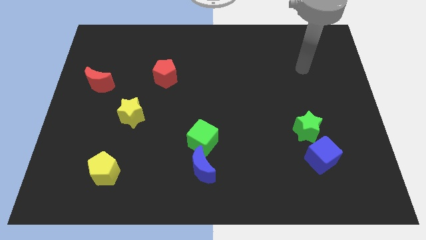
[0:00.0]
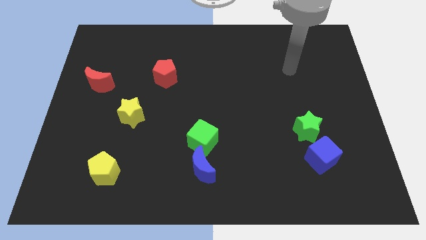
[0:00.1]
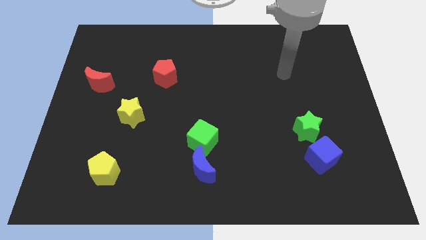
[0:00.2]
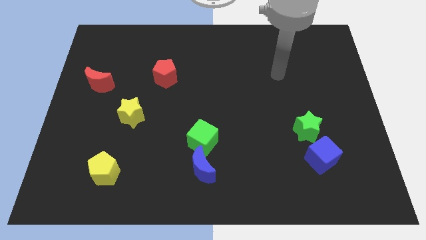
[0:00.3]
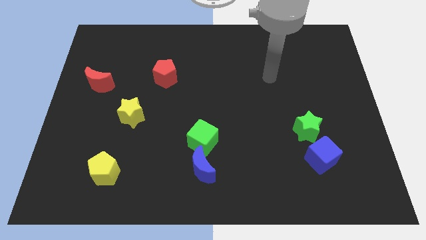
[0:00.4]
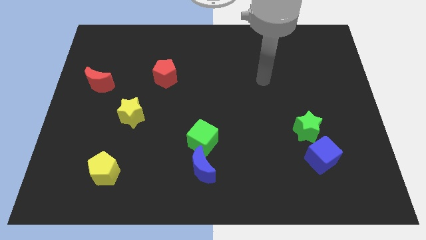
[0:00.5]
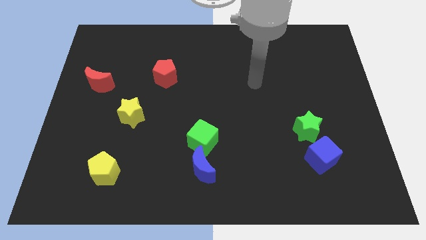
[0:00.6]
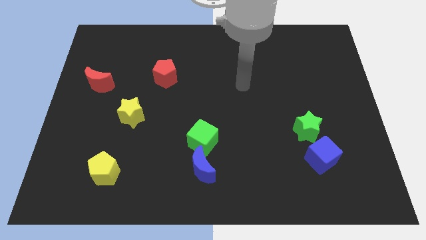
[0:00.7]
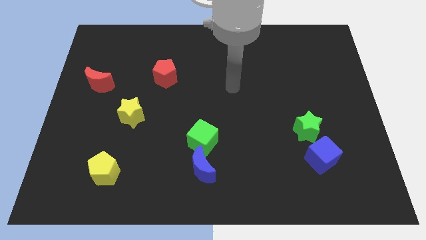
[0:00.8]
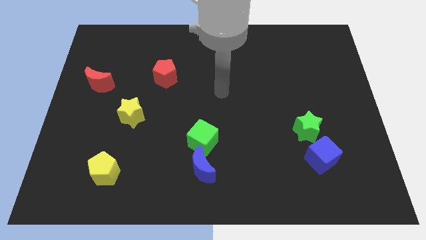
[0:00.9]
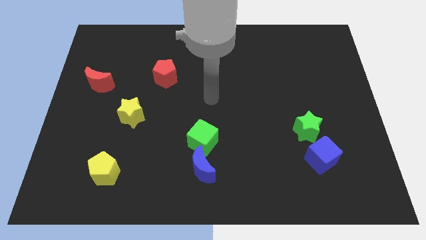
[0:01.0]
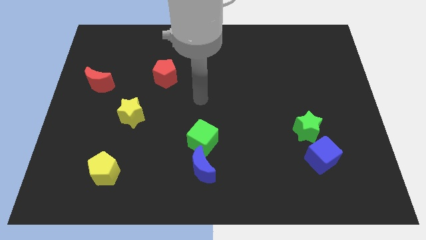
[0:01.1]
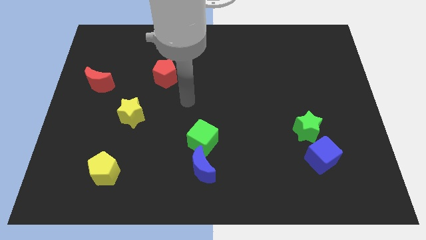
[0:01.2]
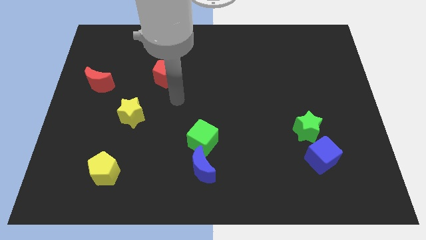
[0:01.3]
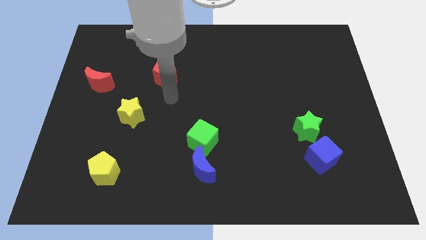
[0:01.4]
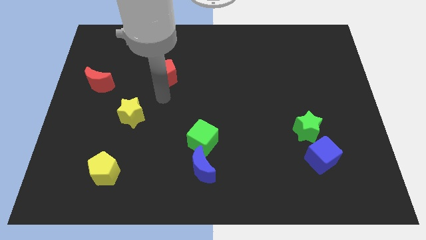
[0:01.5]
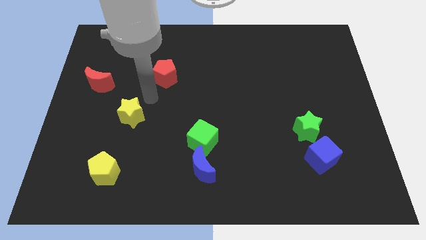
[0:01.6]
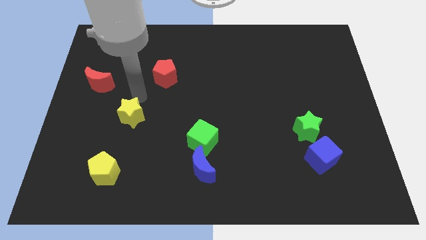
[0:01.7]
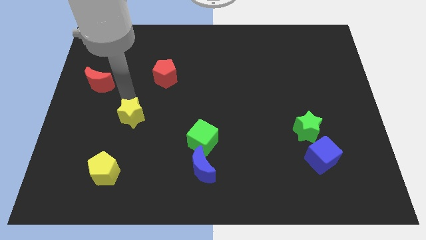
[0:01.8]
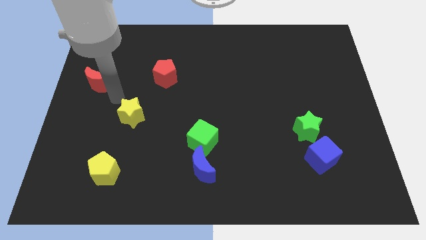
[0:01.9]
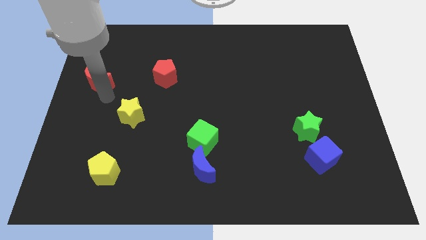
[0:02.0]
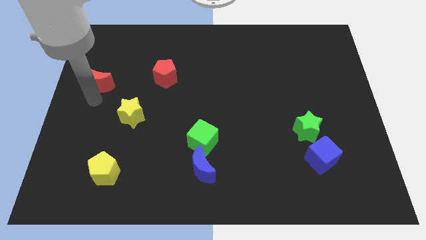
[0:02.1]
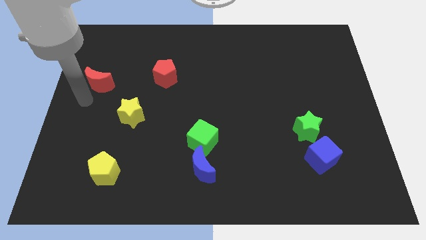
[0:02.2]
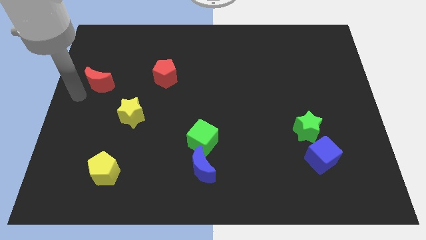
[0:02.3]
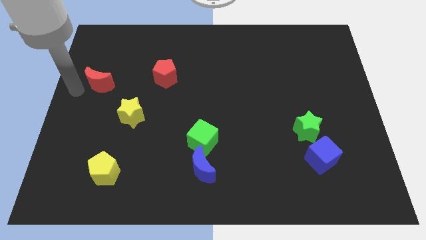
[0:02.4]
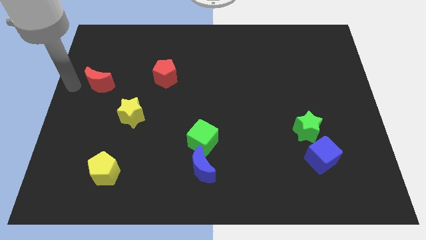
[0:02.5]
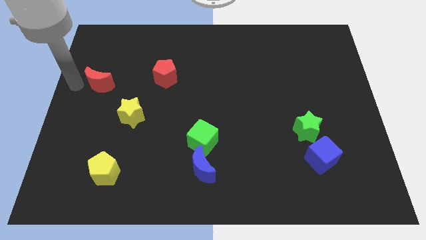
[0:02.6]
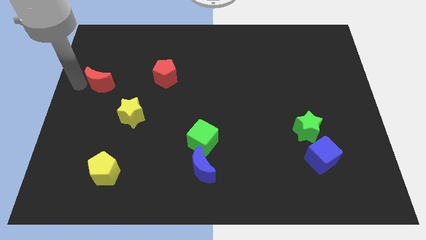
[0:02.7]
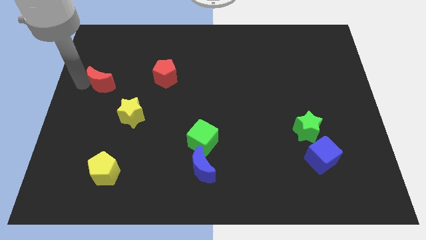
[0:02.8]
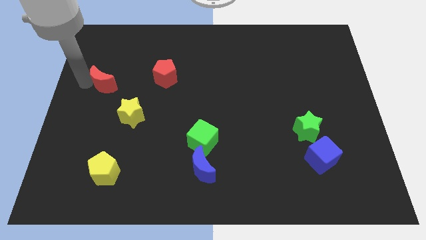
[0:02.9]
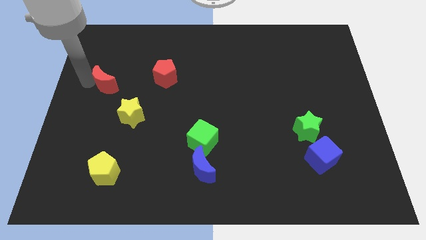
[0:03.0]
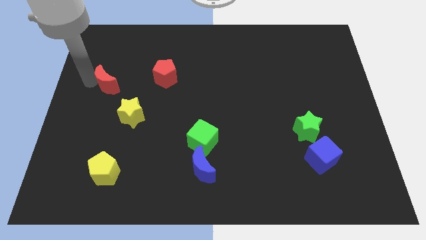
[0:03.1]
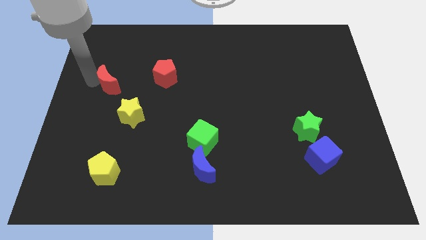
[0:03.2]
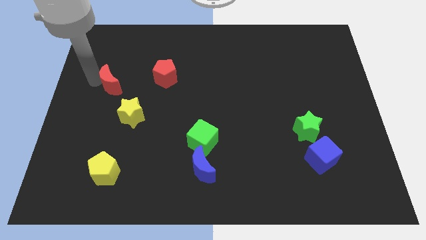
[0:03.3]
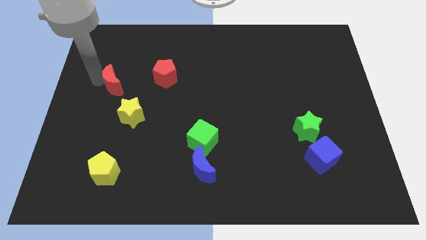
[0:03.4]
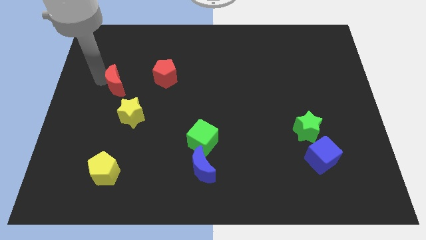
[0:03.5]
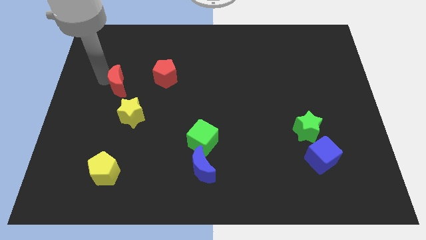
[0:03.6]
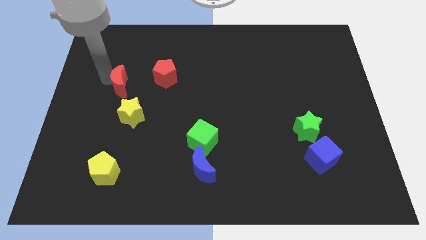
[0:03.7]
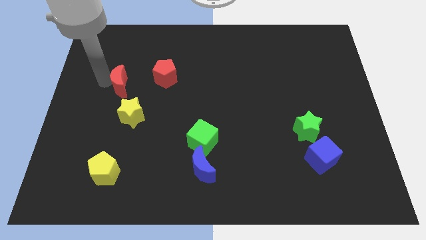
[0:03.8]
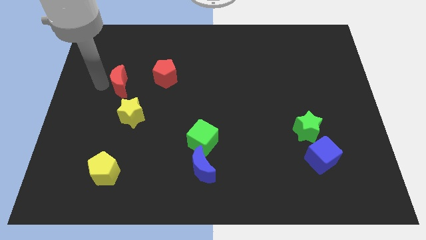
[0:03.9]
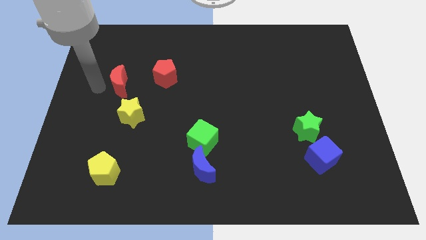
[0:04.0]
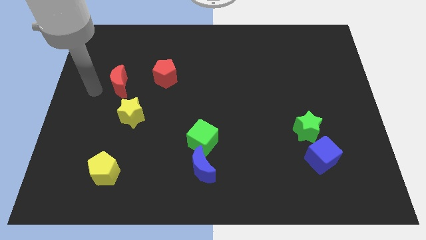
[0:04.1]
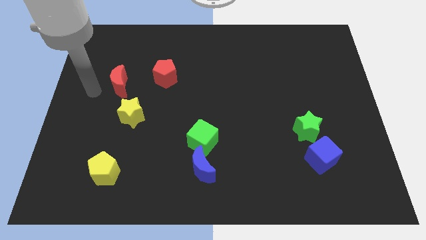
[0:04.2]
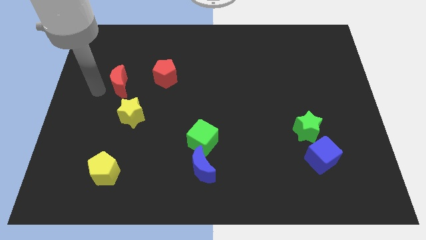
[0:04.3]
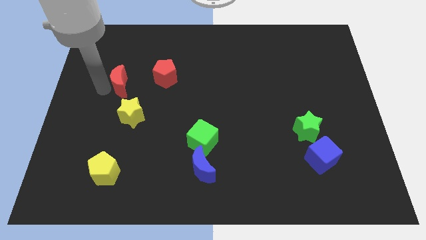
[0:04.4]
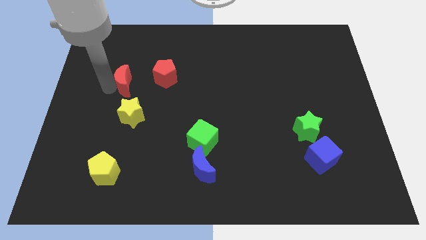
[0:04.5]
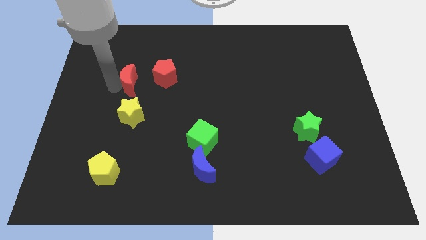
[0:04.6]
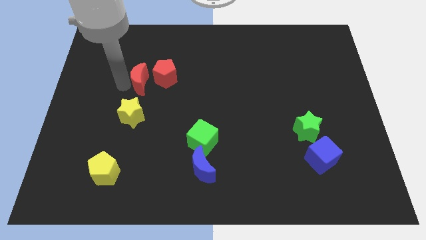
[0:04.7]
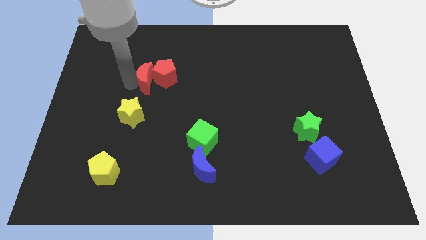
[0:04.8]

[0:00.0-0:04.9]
push the red moon towards the red pentagon

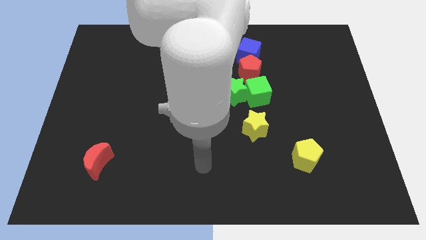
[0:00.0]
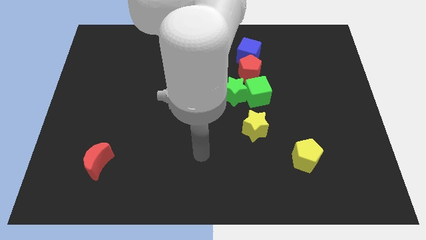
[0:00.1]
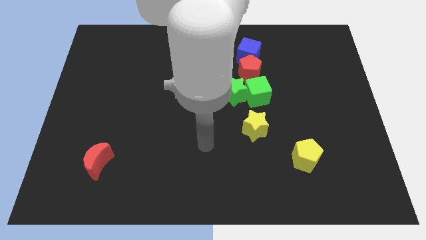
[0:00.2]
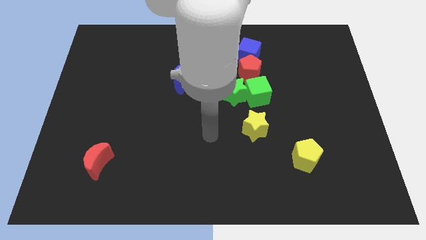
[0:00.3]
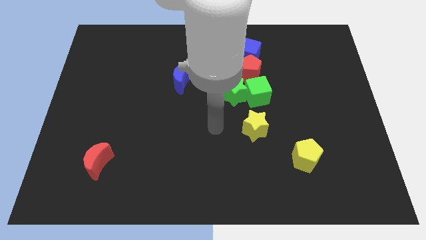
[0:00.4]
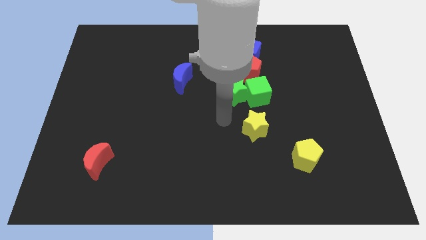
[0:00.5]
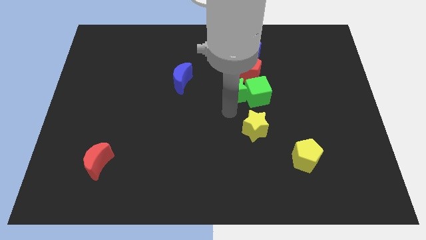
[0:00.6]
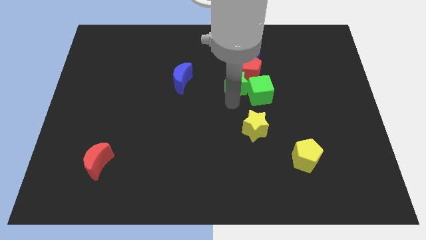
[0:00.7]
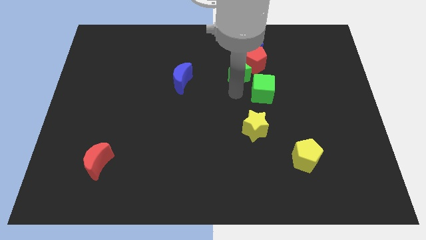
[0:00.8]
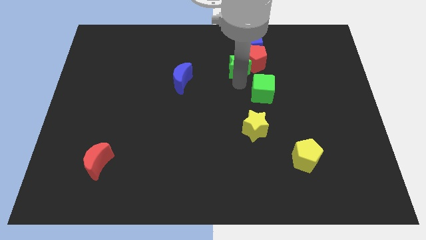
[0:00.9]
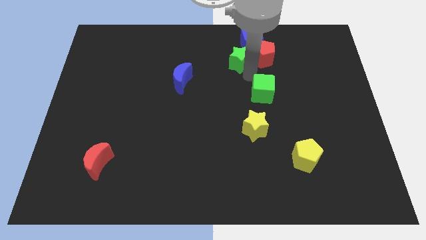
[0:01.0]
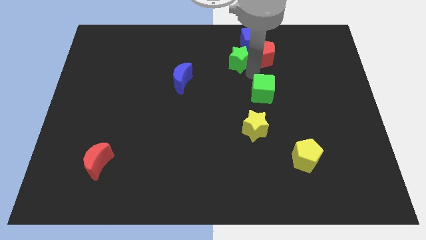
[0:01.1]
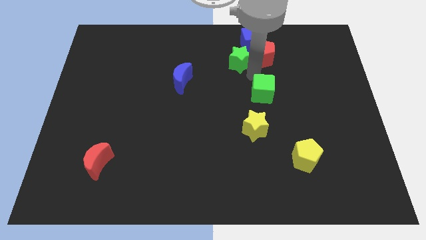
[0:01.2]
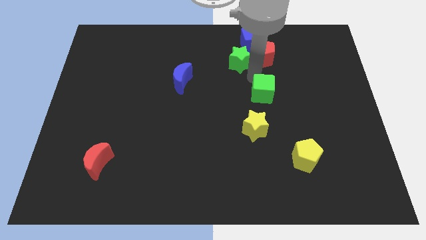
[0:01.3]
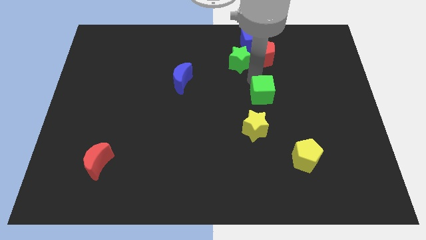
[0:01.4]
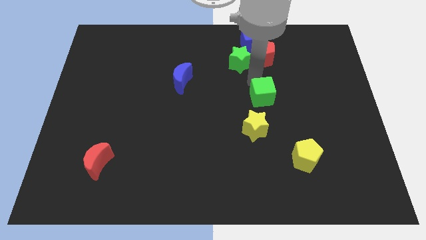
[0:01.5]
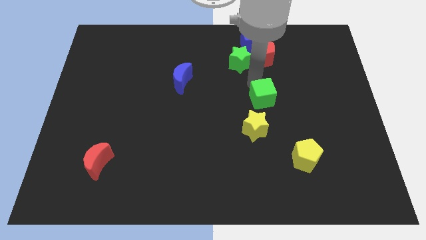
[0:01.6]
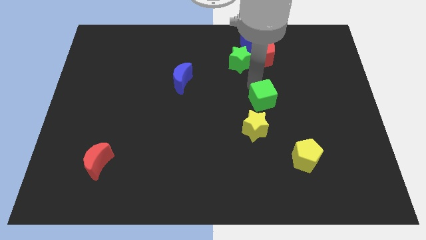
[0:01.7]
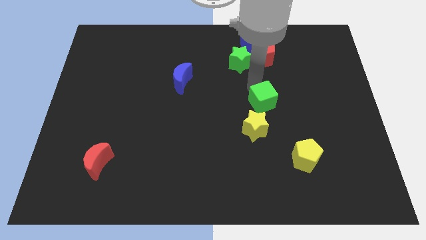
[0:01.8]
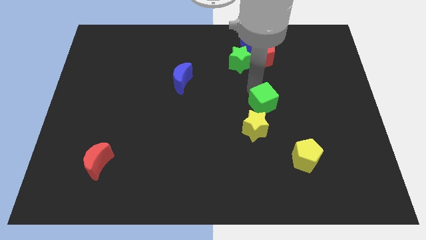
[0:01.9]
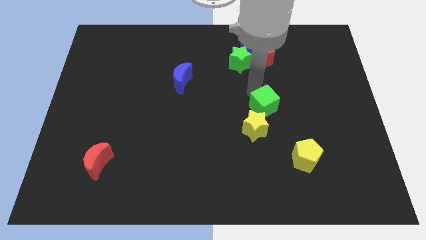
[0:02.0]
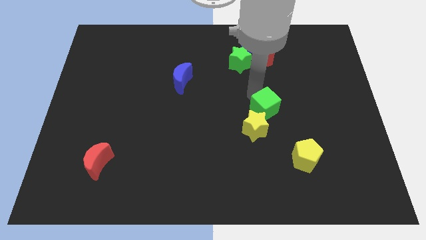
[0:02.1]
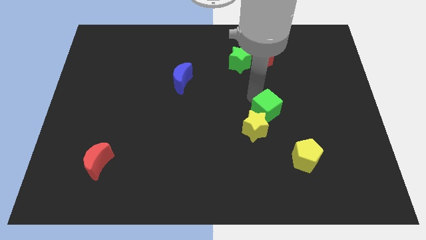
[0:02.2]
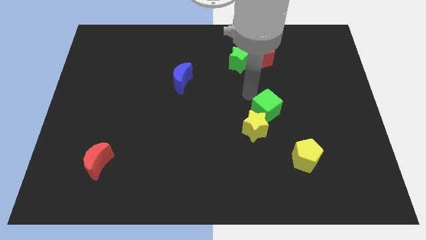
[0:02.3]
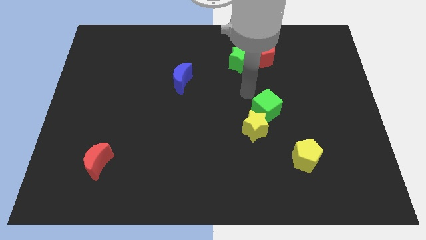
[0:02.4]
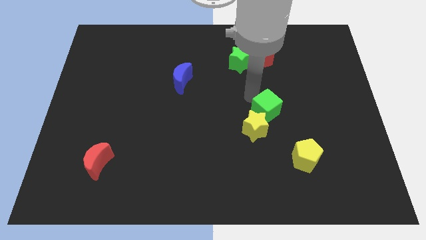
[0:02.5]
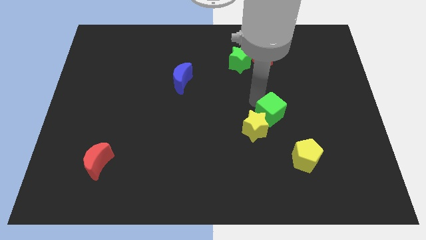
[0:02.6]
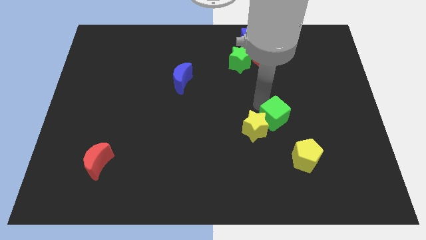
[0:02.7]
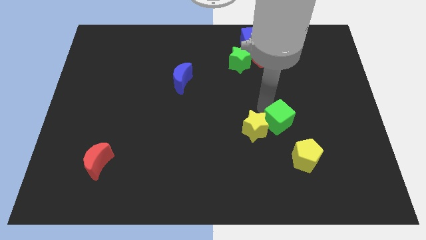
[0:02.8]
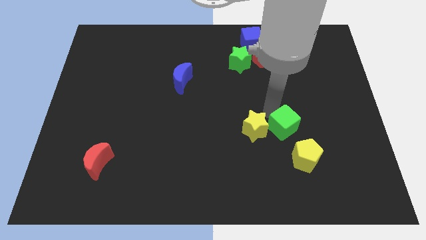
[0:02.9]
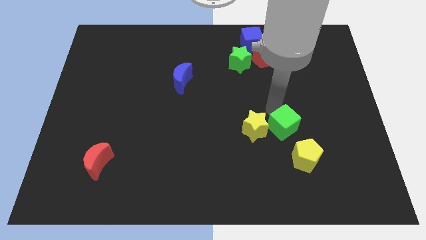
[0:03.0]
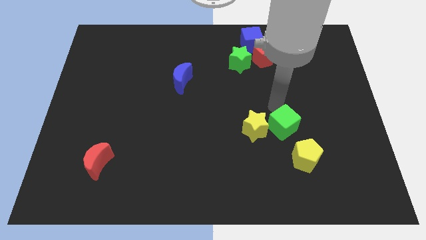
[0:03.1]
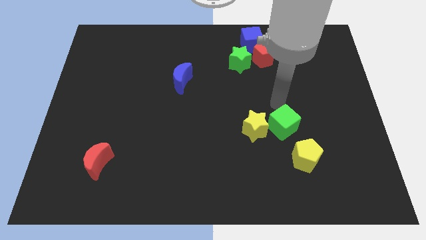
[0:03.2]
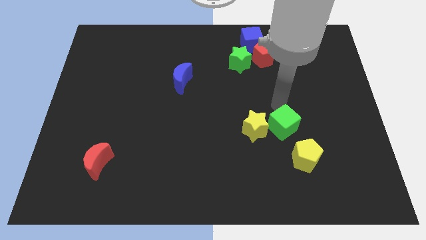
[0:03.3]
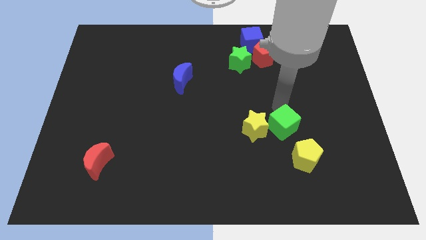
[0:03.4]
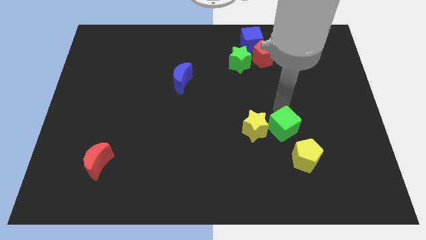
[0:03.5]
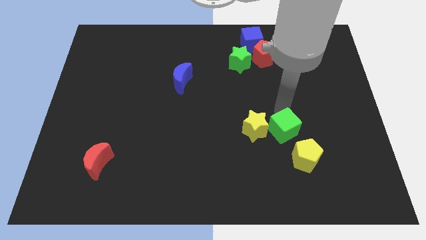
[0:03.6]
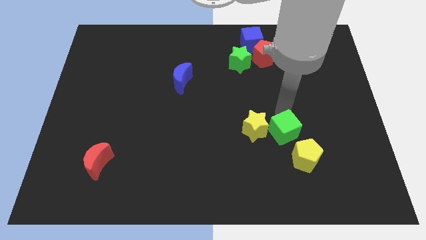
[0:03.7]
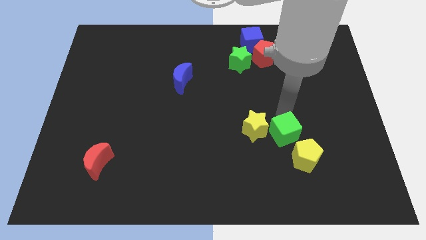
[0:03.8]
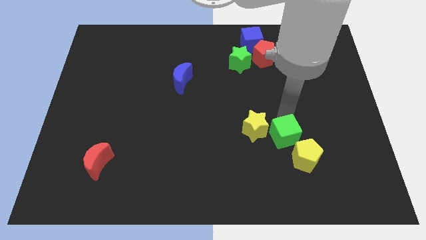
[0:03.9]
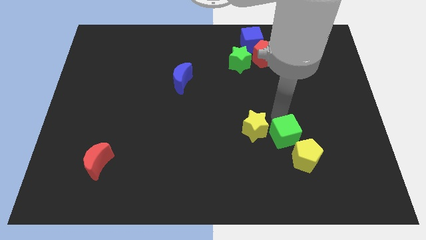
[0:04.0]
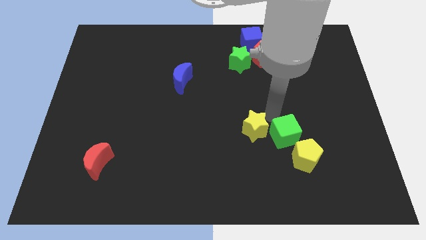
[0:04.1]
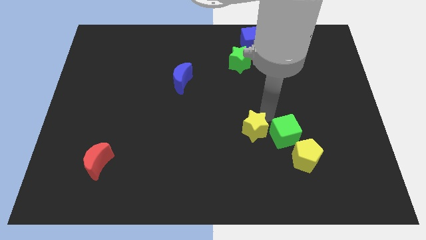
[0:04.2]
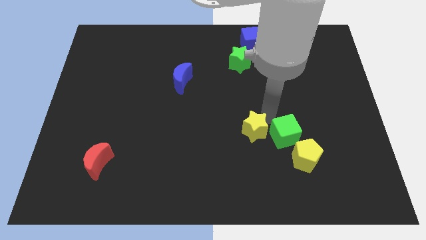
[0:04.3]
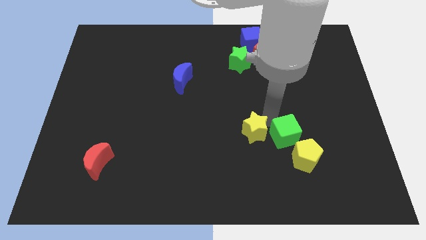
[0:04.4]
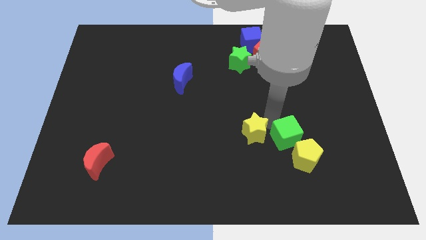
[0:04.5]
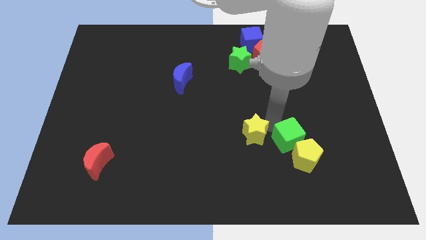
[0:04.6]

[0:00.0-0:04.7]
slide the green cube next to the yellow pentagon
